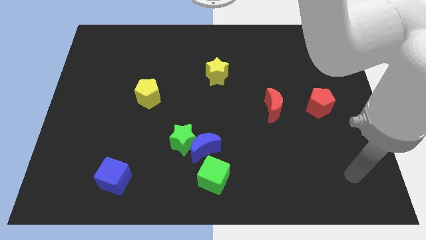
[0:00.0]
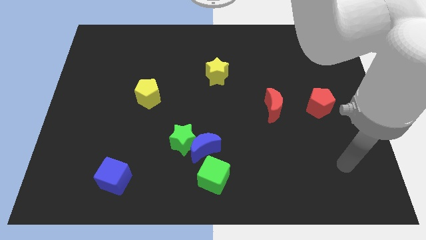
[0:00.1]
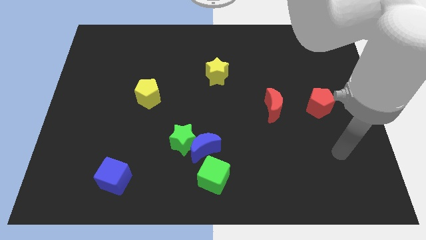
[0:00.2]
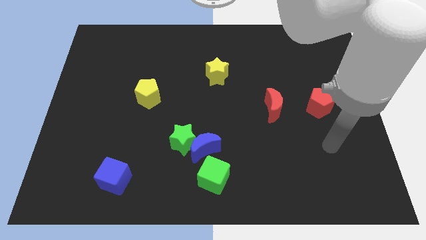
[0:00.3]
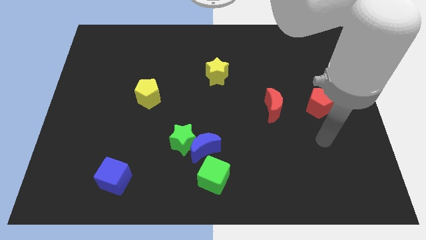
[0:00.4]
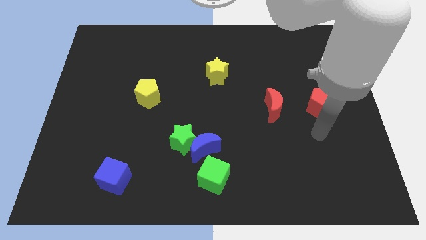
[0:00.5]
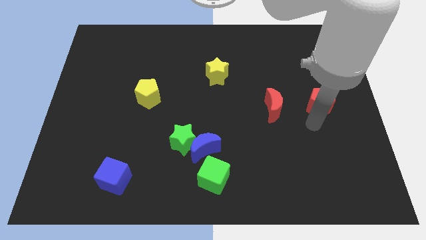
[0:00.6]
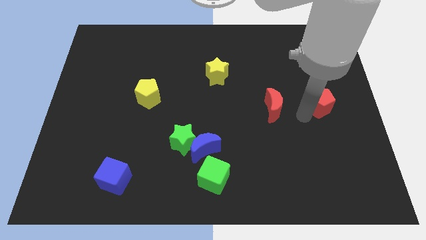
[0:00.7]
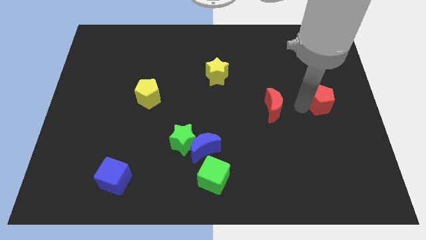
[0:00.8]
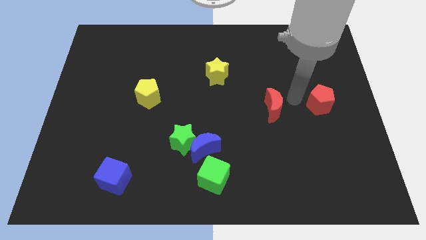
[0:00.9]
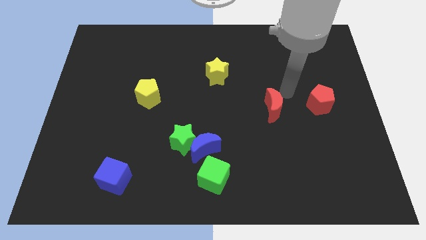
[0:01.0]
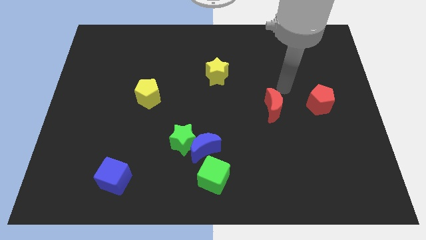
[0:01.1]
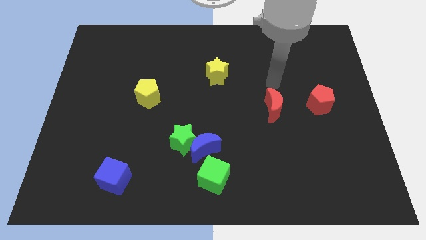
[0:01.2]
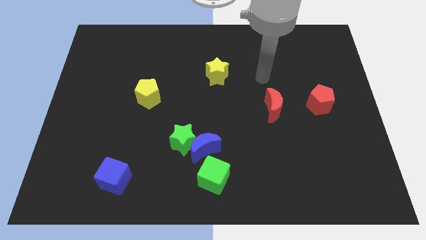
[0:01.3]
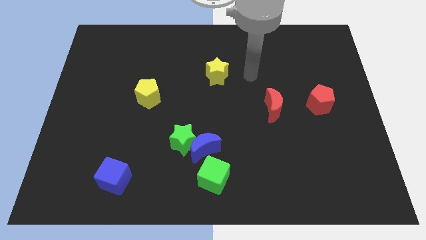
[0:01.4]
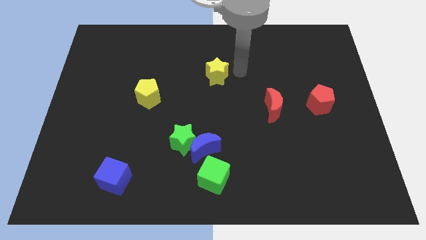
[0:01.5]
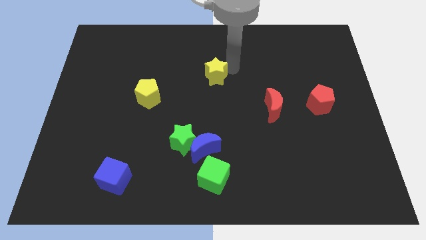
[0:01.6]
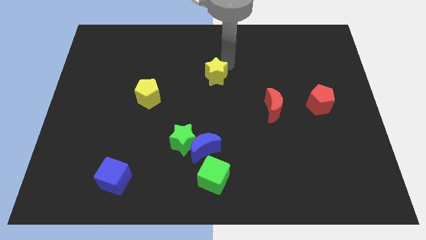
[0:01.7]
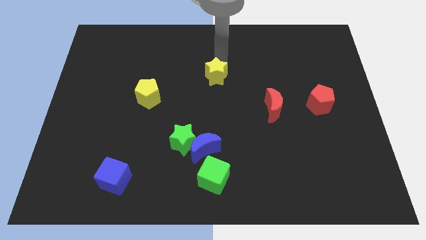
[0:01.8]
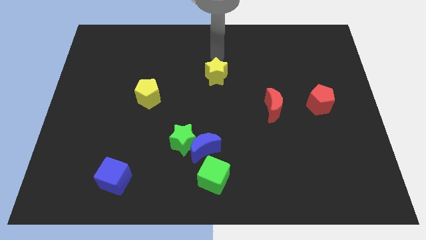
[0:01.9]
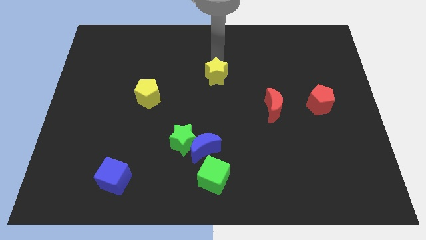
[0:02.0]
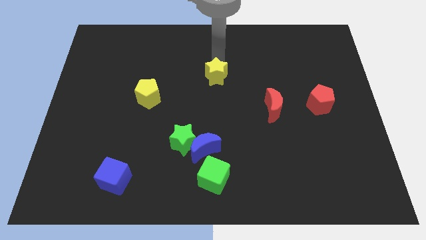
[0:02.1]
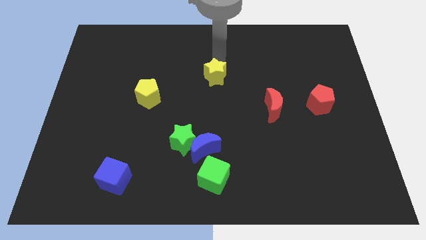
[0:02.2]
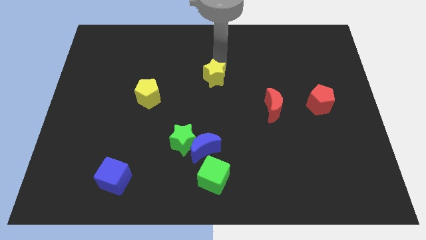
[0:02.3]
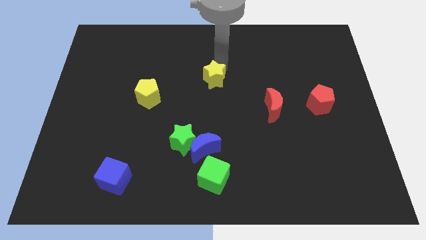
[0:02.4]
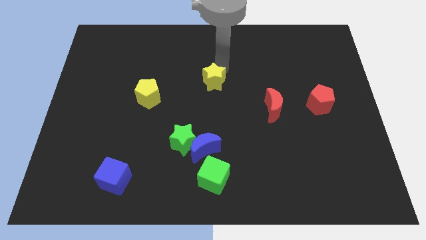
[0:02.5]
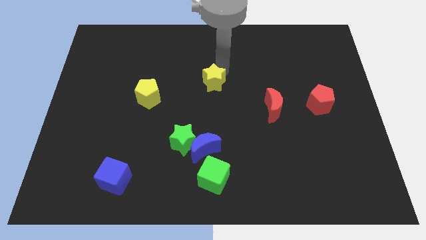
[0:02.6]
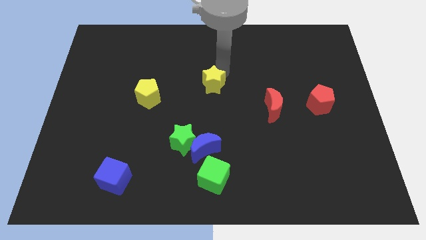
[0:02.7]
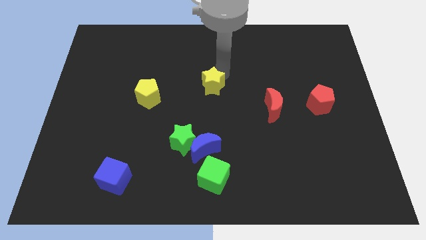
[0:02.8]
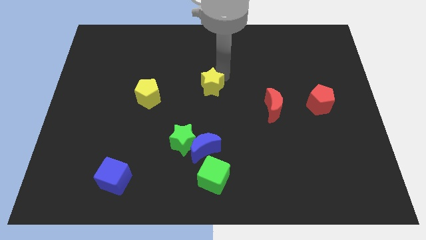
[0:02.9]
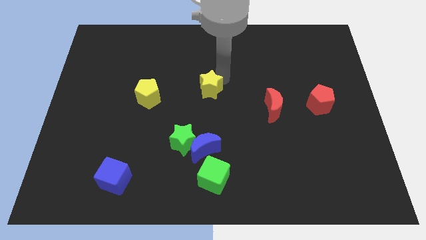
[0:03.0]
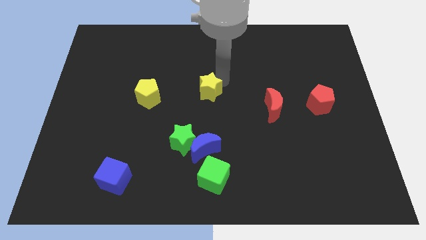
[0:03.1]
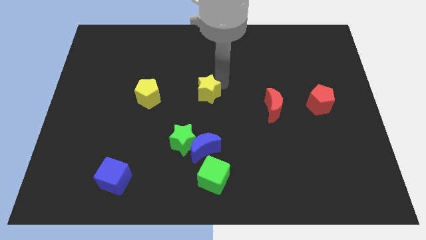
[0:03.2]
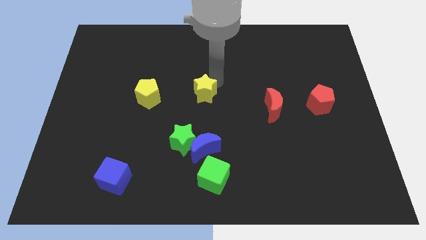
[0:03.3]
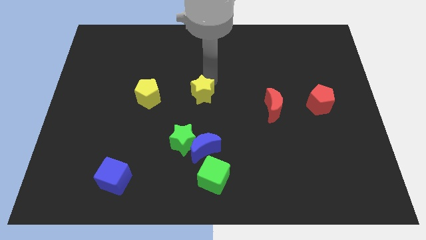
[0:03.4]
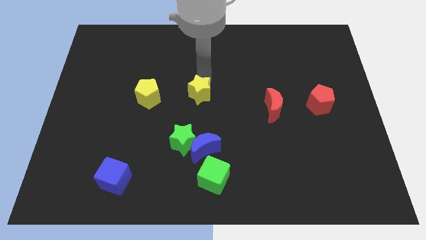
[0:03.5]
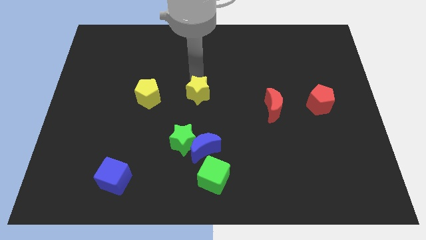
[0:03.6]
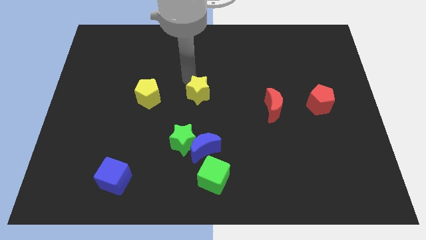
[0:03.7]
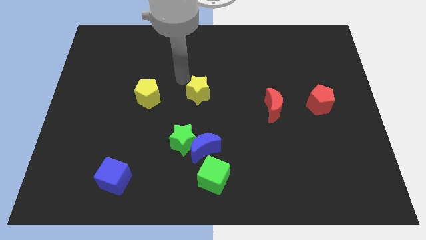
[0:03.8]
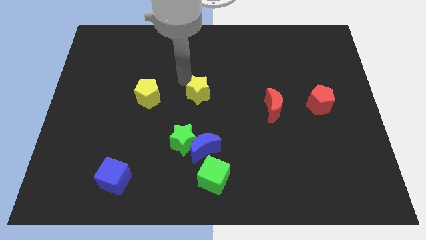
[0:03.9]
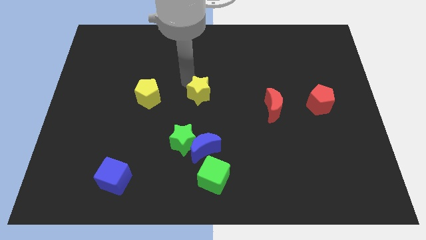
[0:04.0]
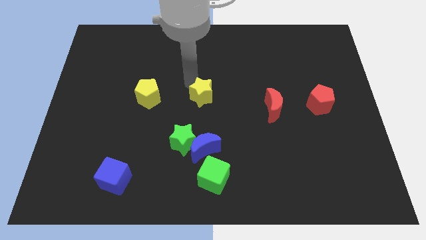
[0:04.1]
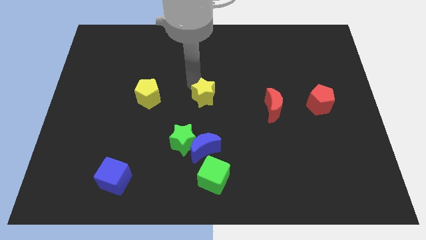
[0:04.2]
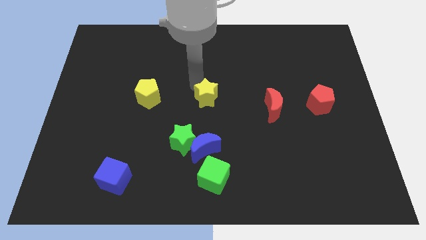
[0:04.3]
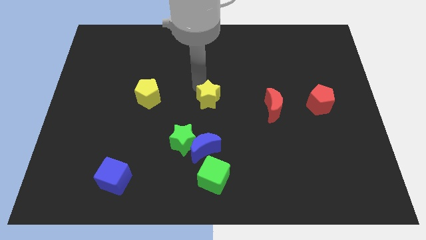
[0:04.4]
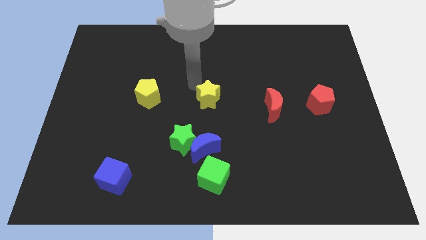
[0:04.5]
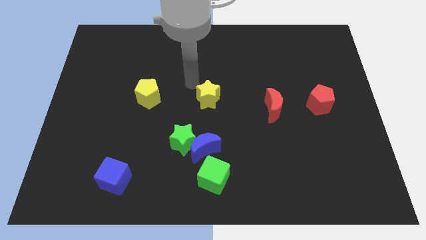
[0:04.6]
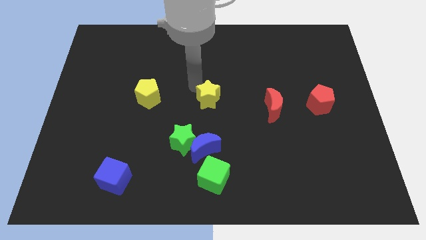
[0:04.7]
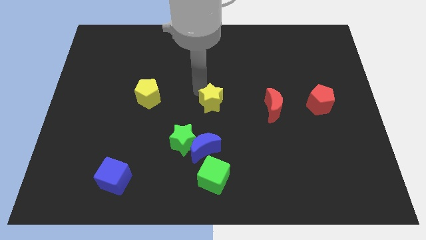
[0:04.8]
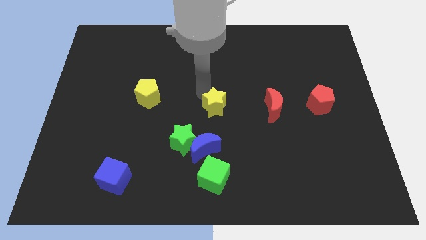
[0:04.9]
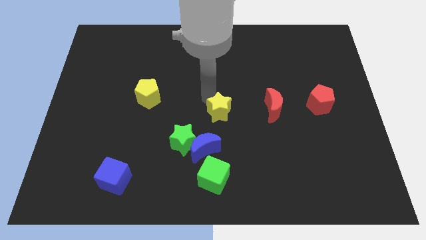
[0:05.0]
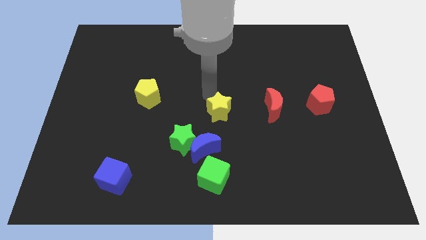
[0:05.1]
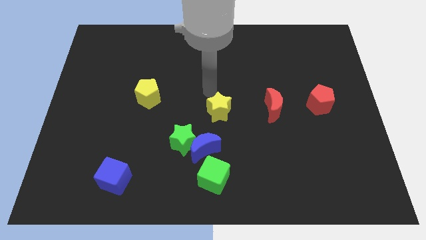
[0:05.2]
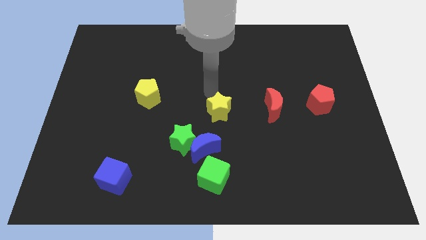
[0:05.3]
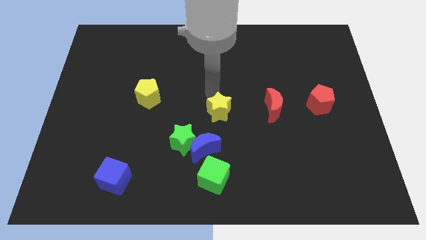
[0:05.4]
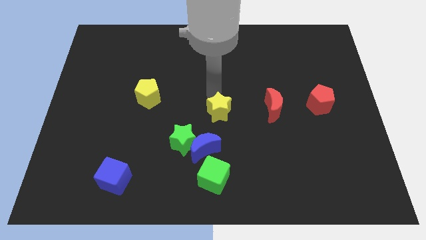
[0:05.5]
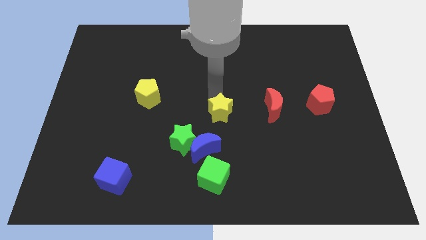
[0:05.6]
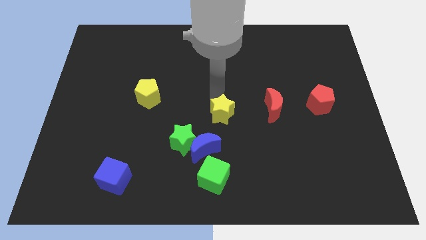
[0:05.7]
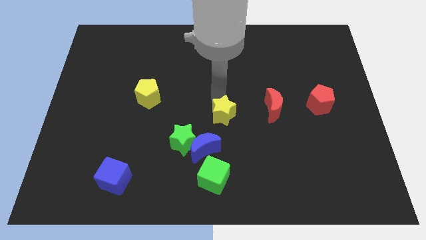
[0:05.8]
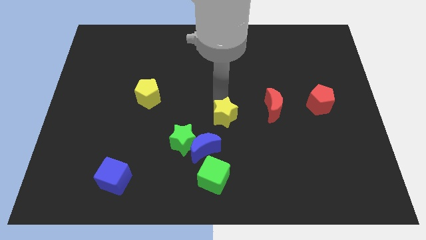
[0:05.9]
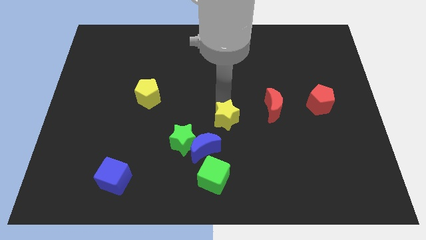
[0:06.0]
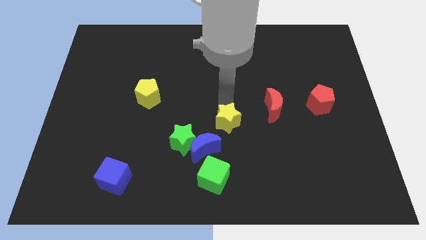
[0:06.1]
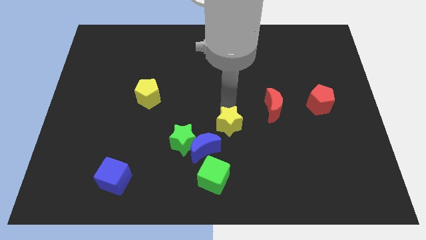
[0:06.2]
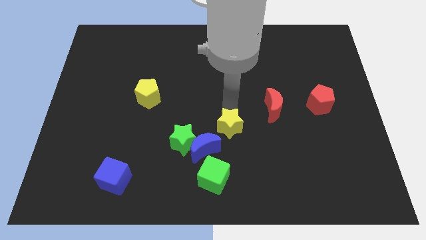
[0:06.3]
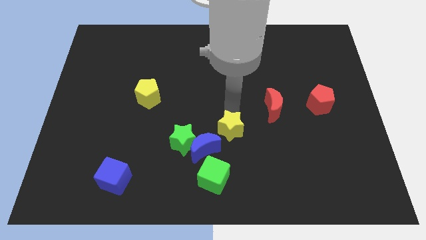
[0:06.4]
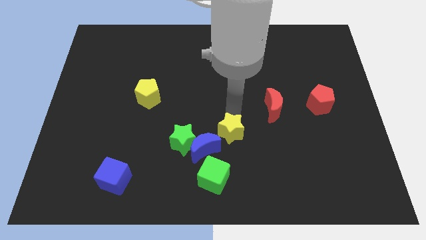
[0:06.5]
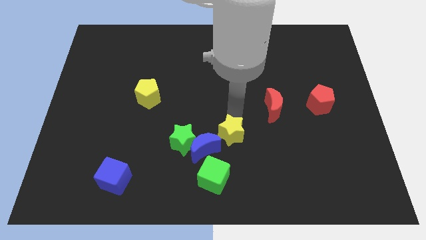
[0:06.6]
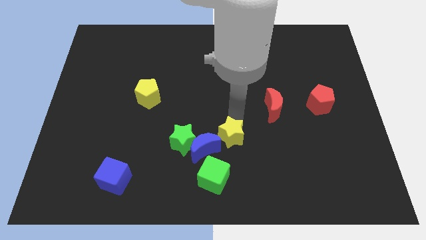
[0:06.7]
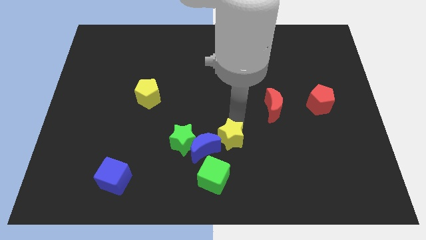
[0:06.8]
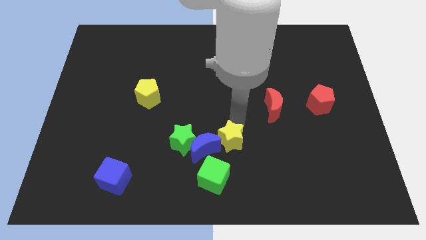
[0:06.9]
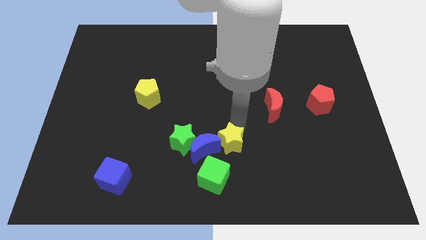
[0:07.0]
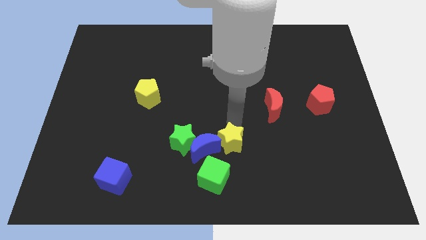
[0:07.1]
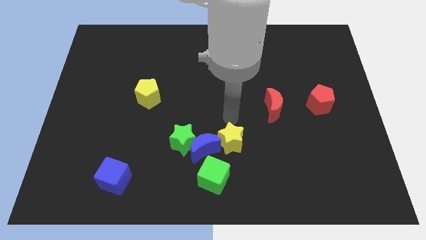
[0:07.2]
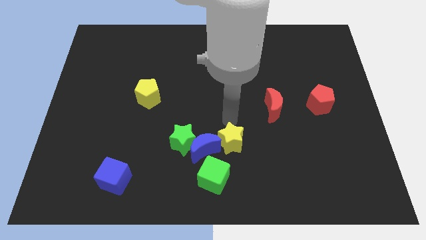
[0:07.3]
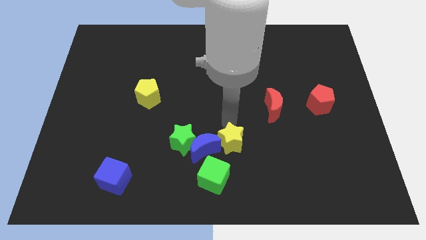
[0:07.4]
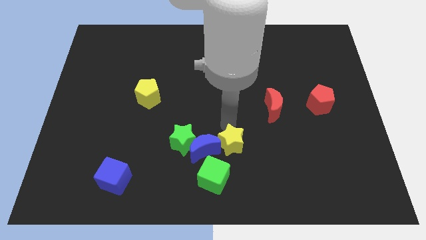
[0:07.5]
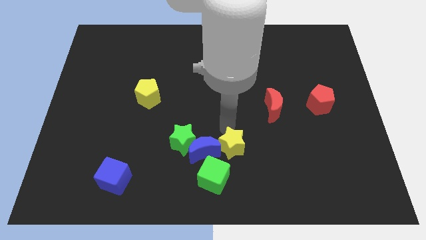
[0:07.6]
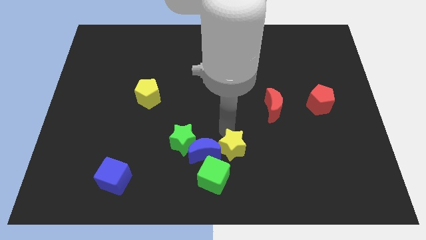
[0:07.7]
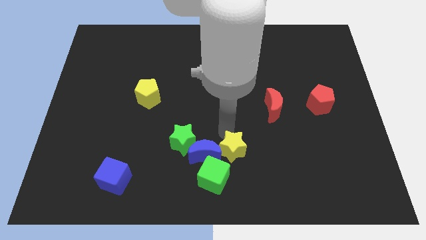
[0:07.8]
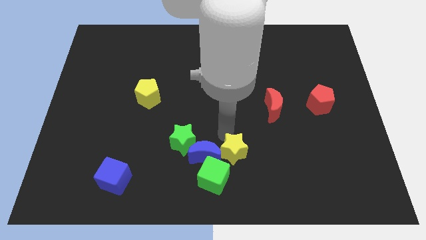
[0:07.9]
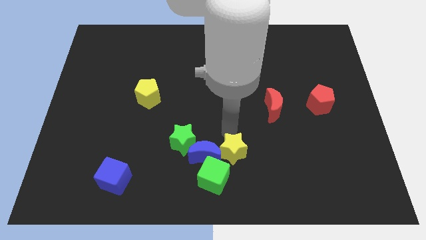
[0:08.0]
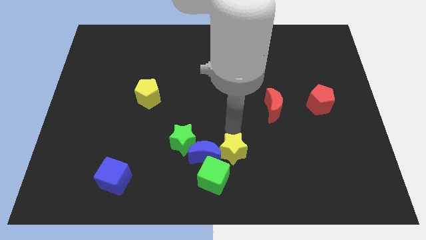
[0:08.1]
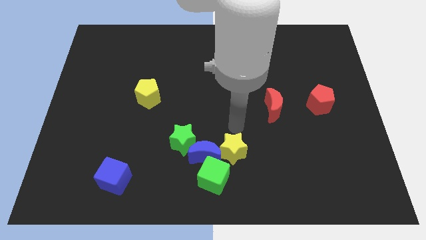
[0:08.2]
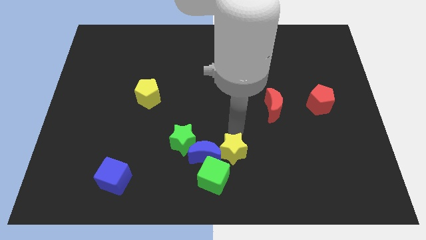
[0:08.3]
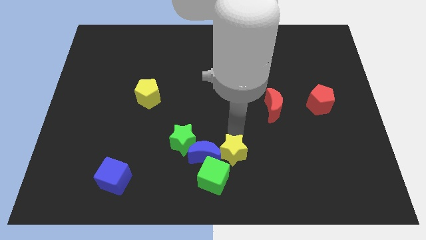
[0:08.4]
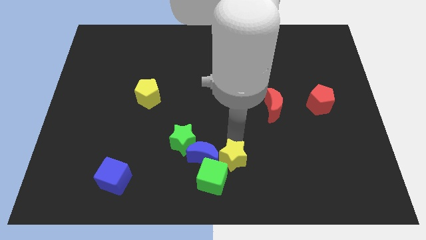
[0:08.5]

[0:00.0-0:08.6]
push the yellow star to the bottom side
